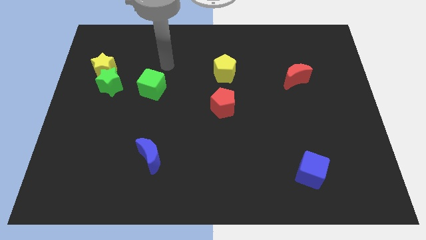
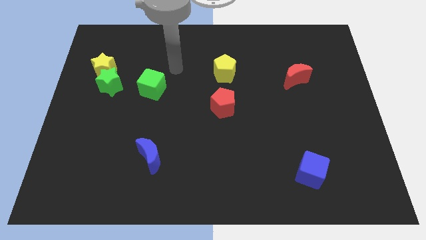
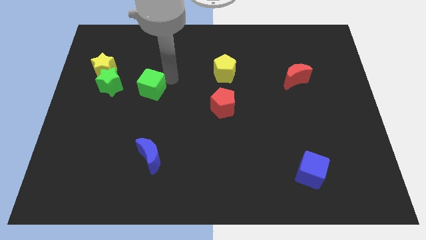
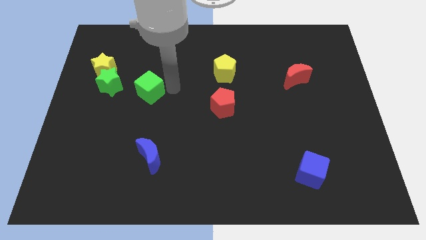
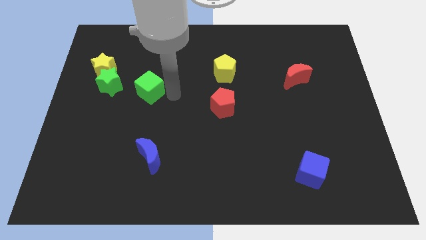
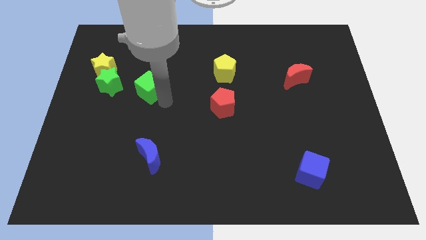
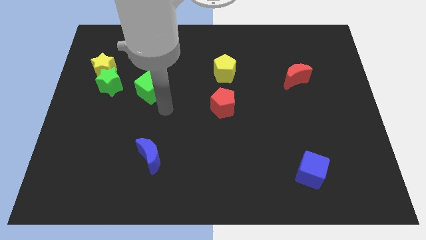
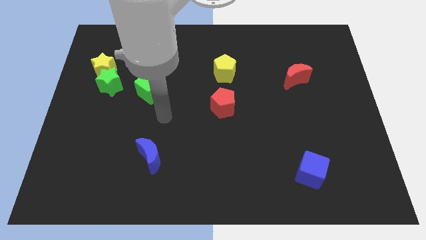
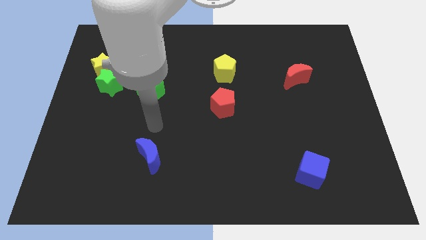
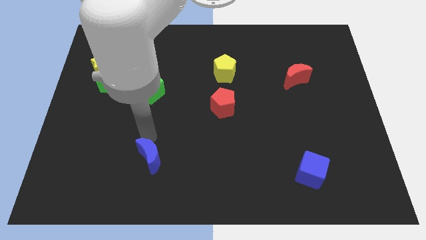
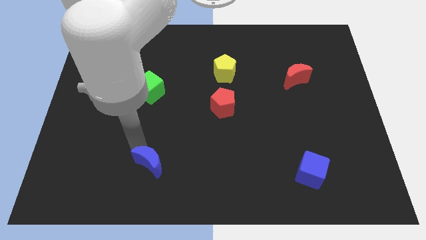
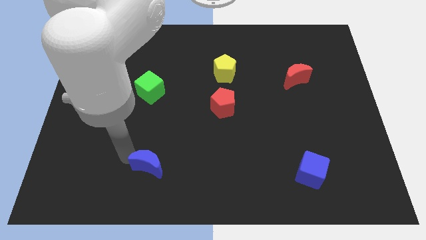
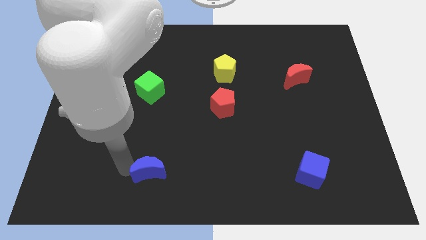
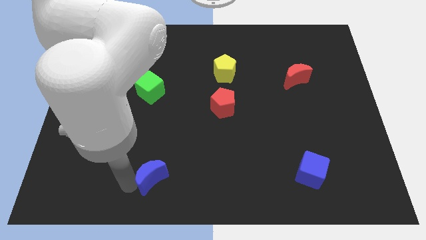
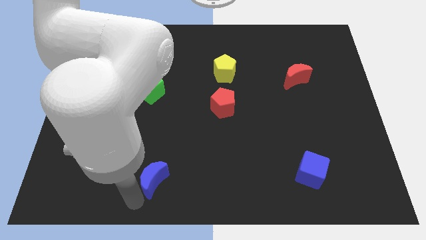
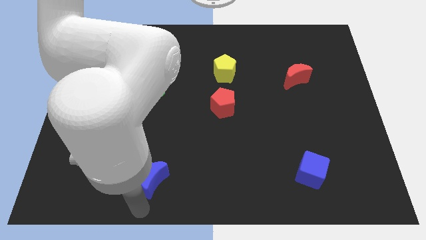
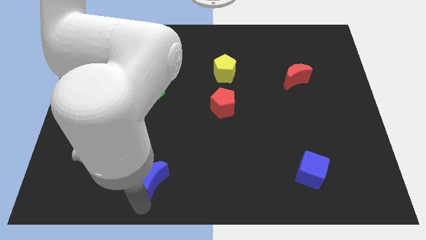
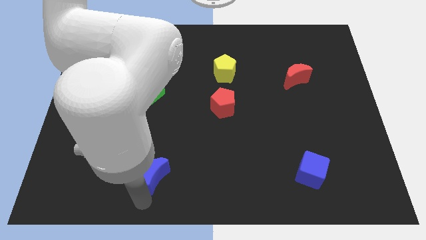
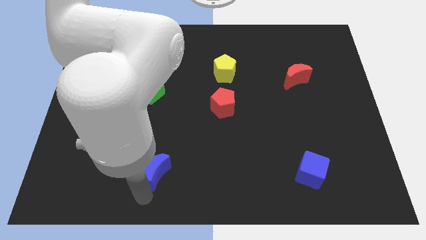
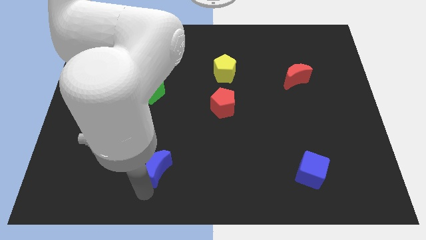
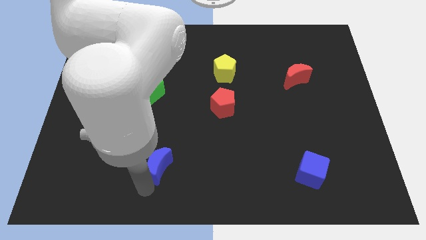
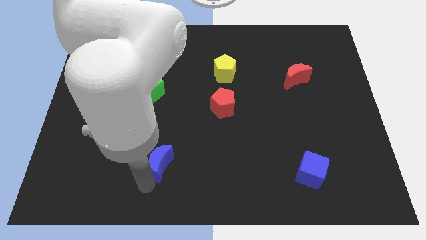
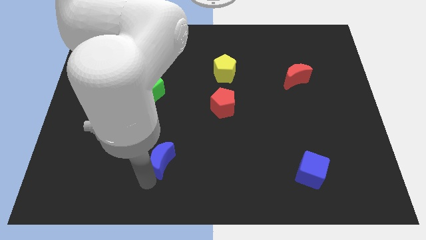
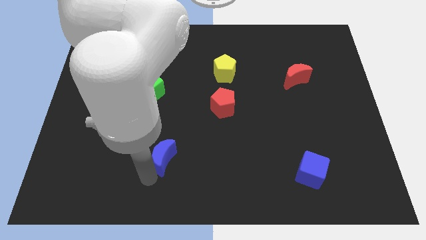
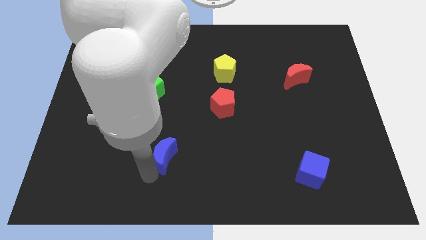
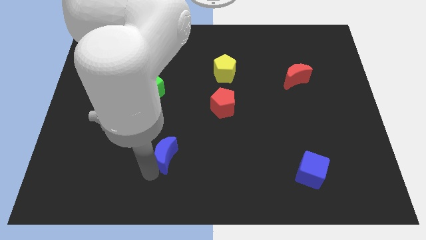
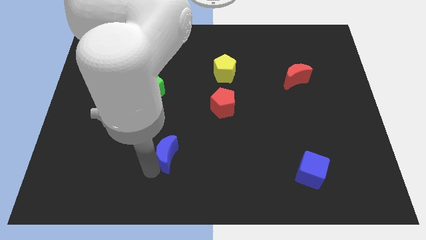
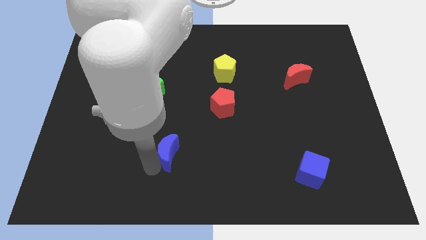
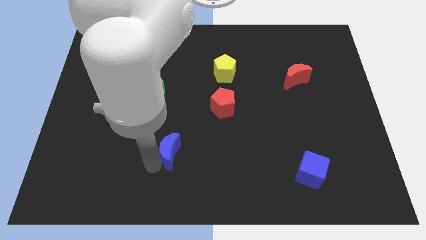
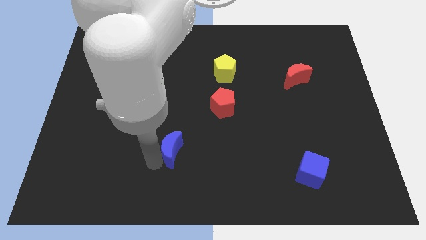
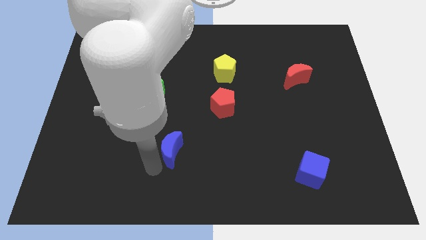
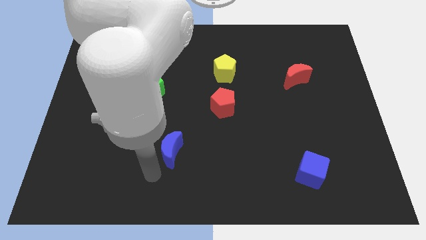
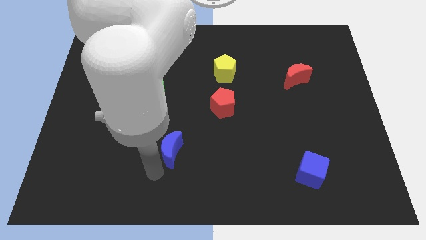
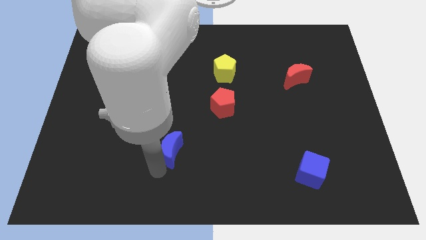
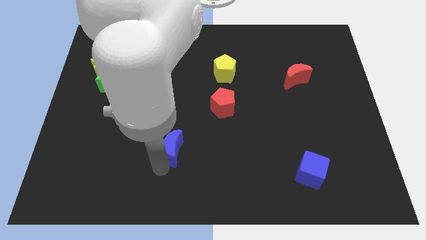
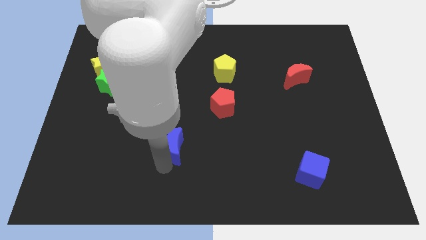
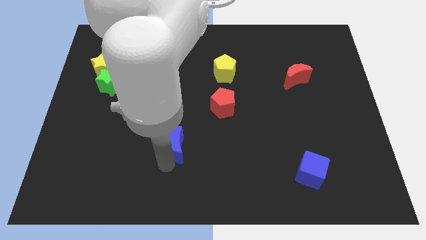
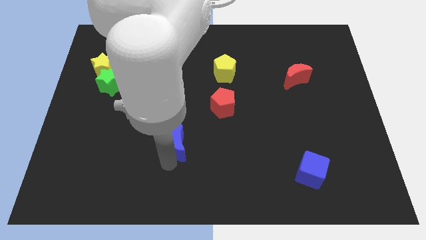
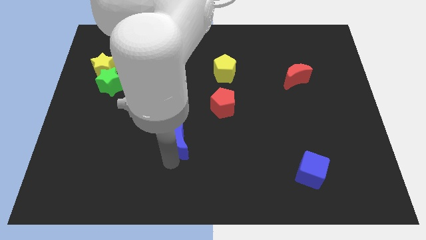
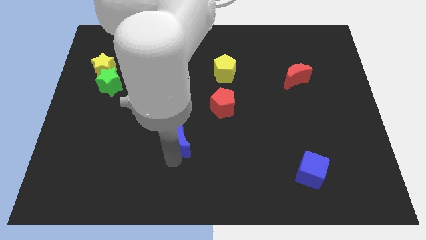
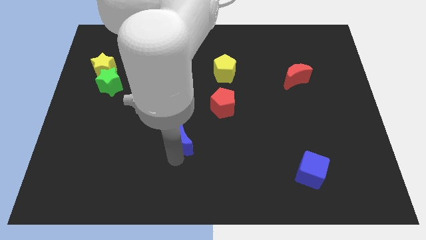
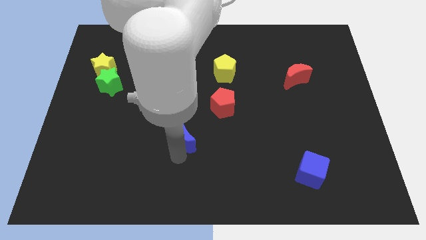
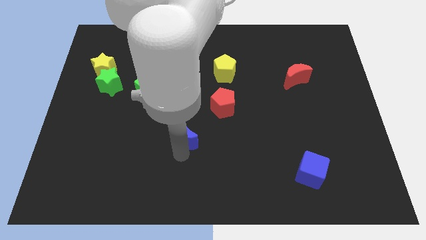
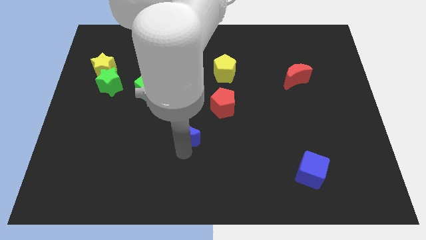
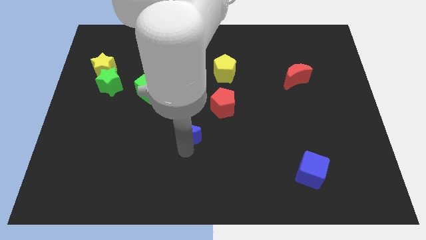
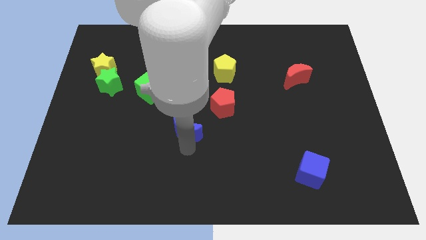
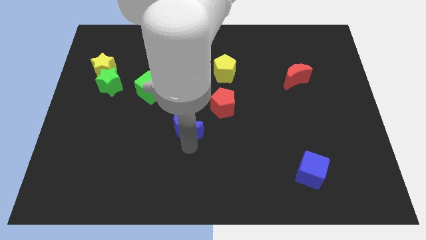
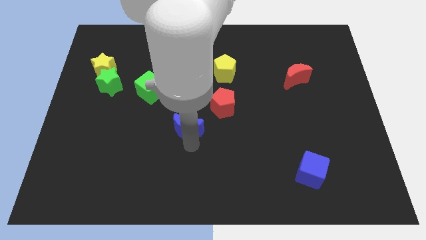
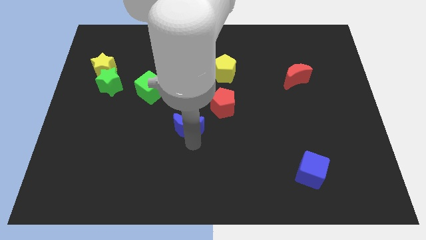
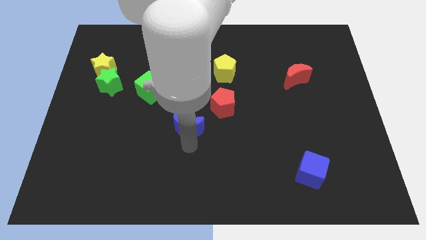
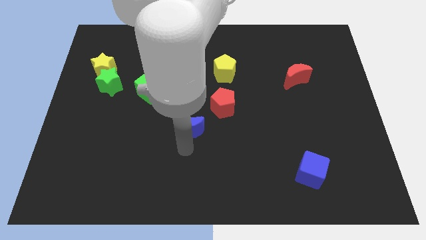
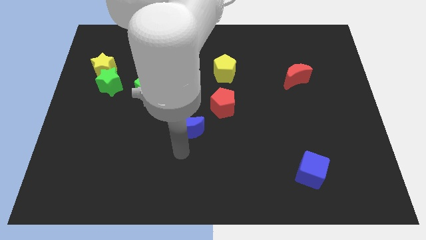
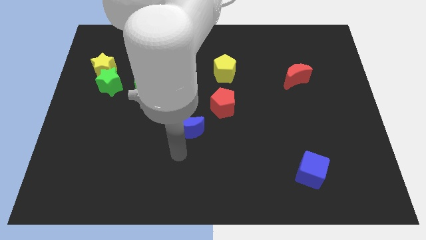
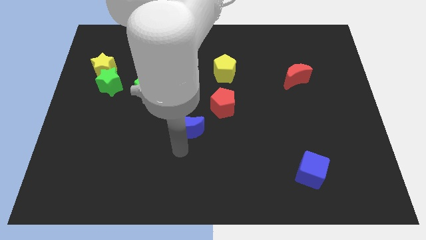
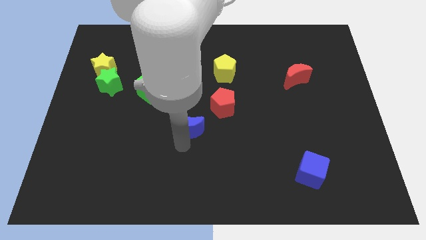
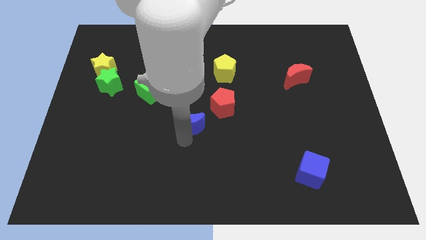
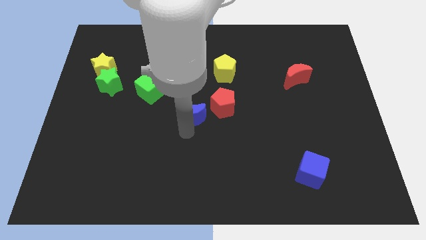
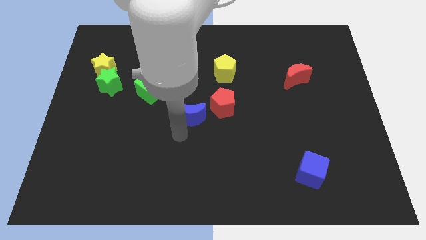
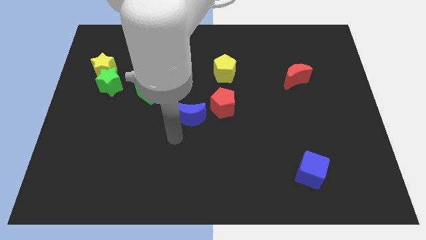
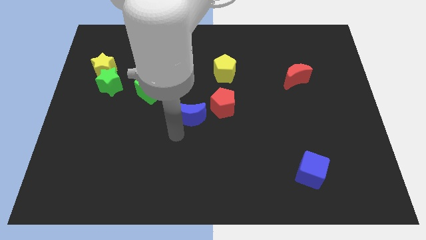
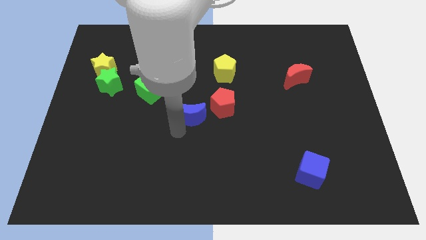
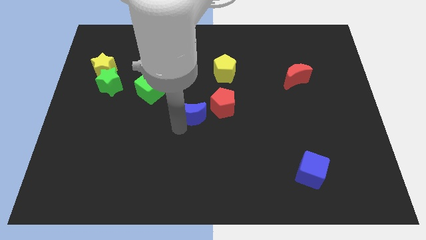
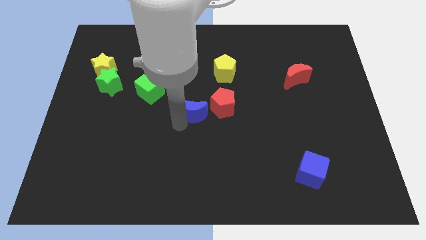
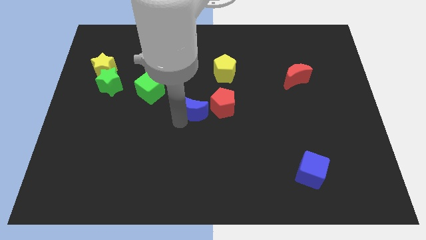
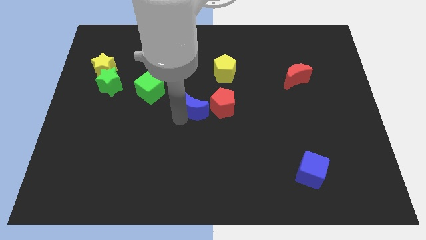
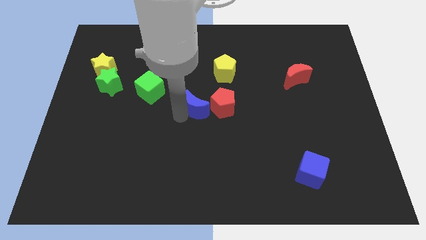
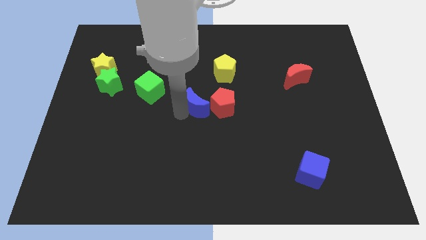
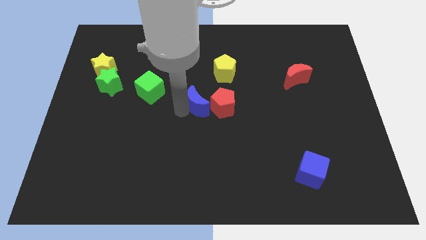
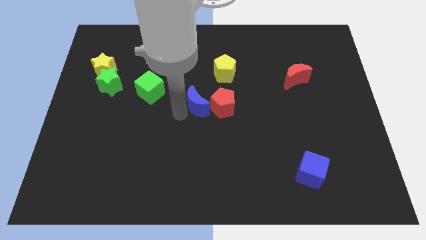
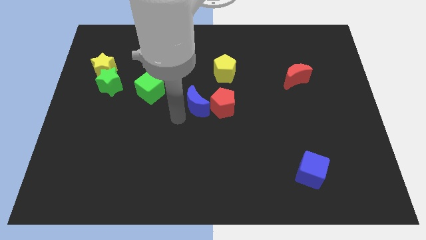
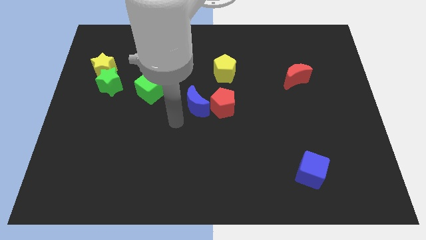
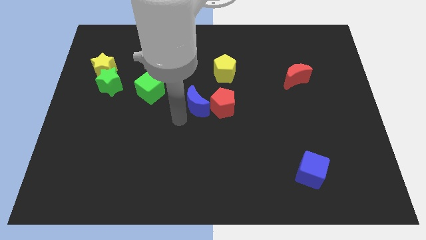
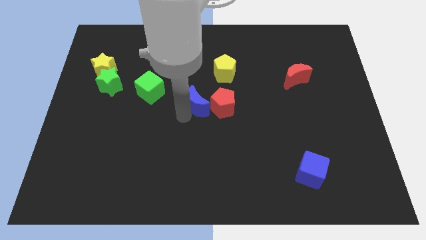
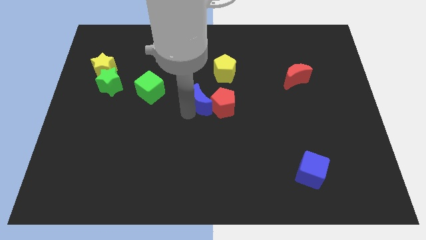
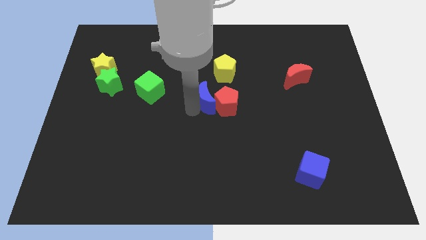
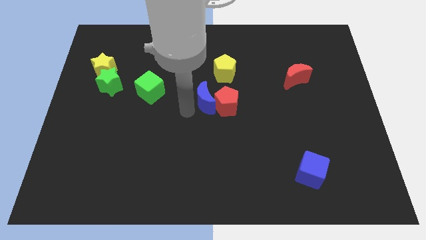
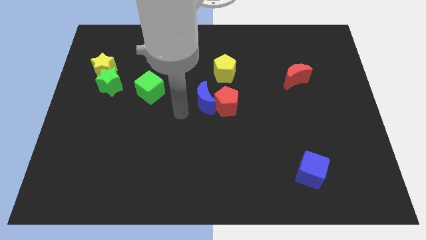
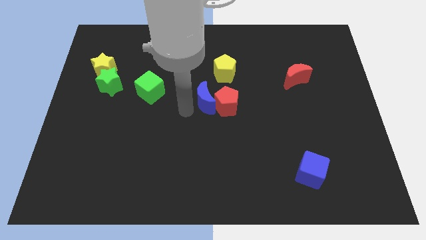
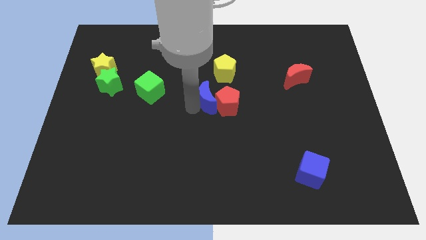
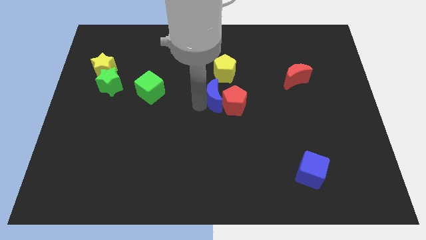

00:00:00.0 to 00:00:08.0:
slide the blue moon upwards and right
